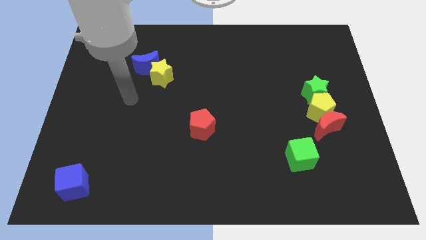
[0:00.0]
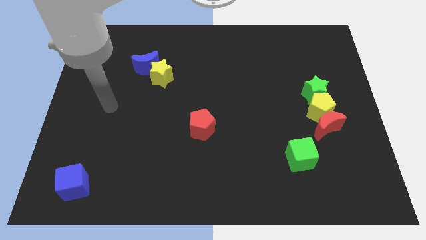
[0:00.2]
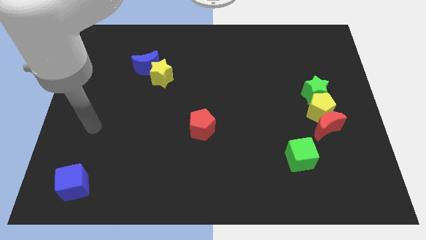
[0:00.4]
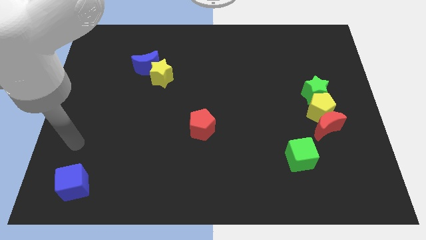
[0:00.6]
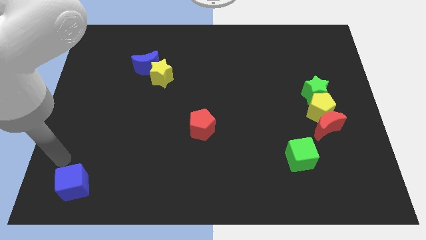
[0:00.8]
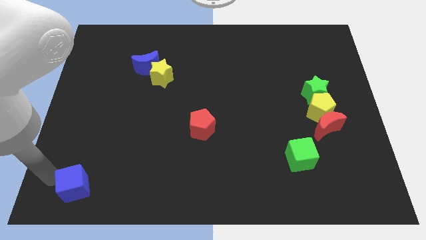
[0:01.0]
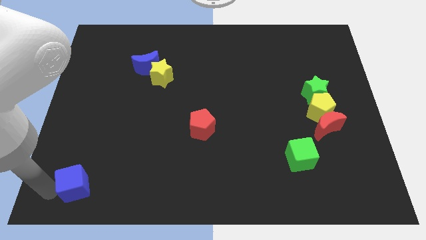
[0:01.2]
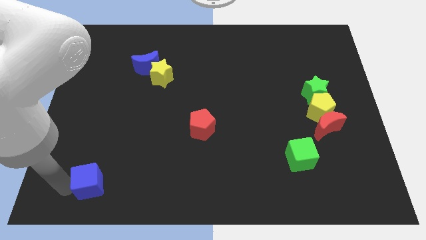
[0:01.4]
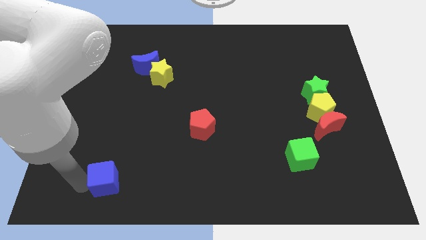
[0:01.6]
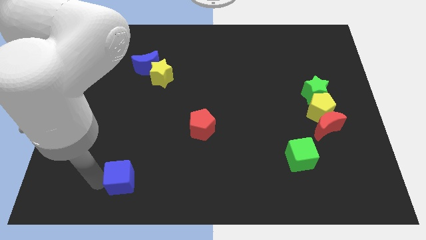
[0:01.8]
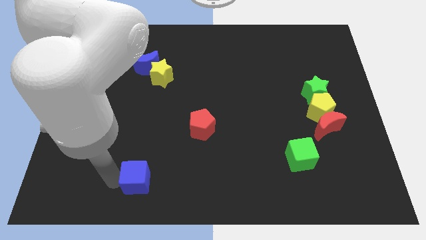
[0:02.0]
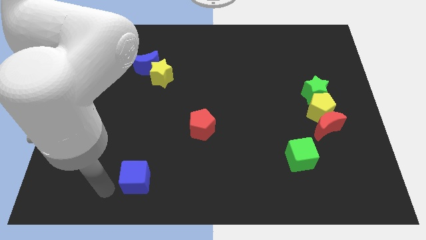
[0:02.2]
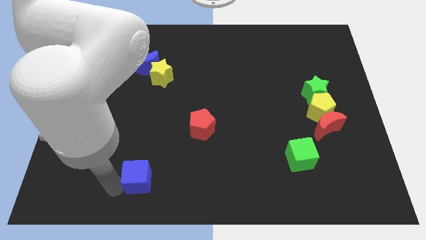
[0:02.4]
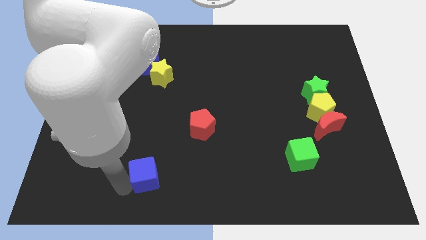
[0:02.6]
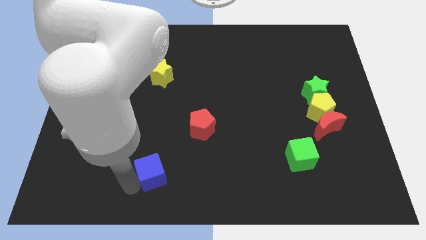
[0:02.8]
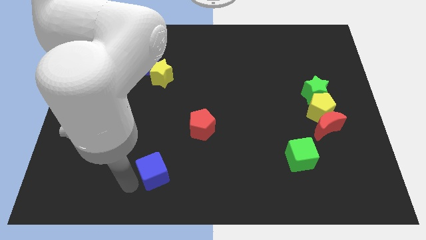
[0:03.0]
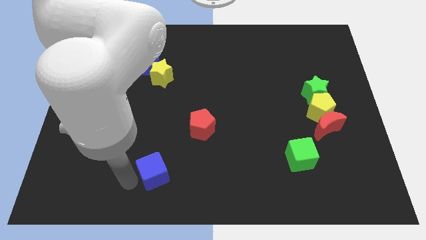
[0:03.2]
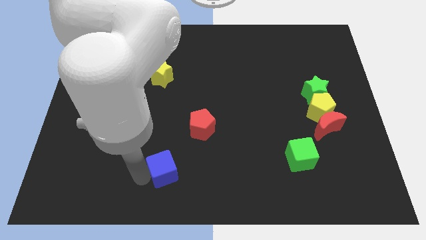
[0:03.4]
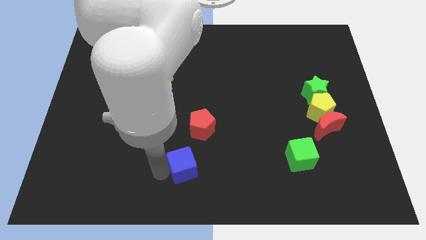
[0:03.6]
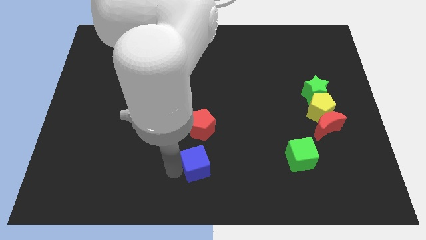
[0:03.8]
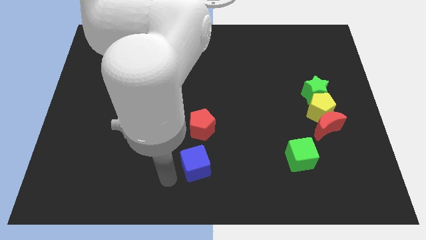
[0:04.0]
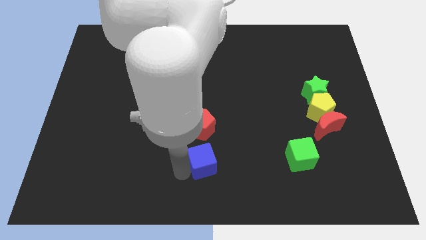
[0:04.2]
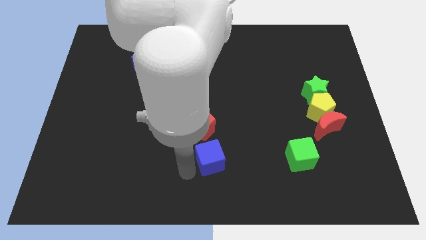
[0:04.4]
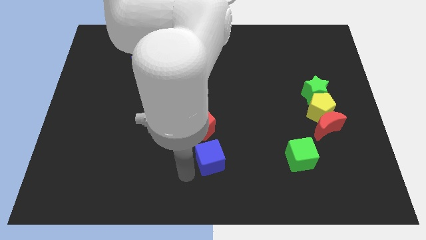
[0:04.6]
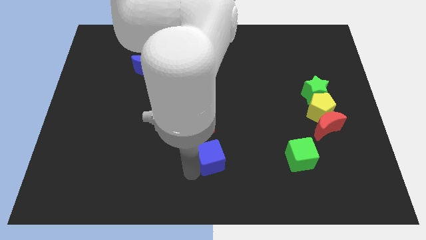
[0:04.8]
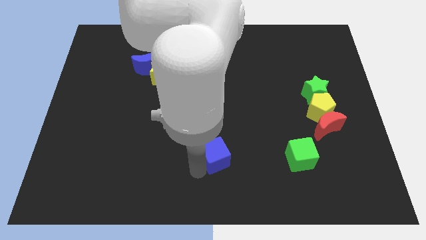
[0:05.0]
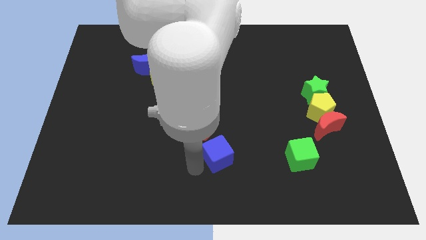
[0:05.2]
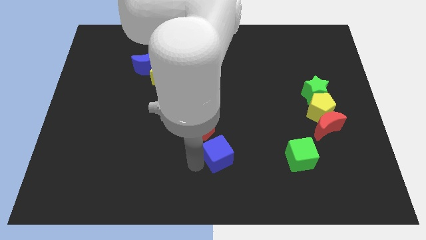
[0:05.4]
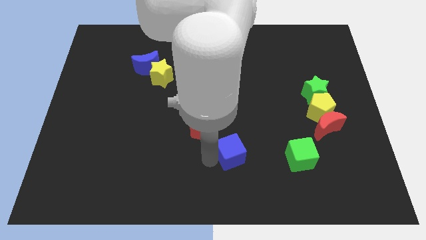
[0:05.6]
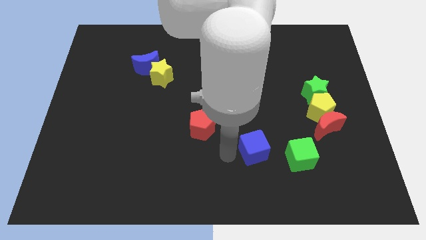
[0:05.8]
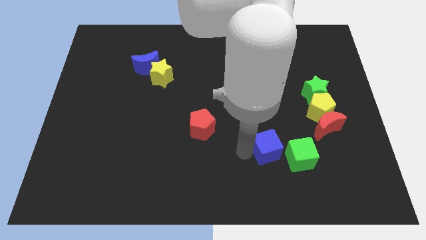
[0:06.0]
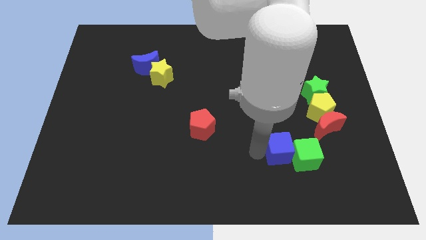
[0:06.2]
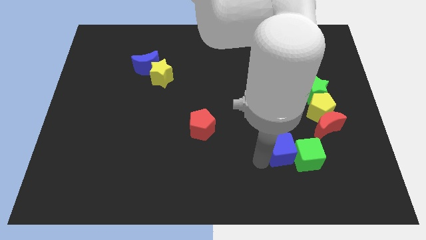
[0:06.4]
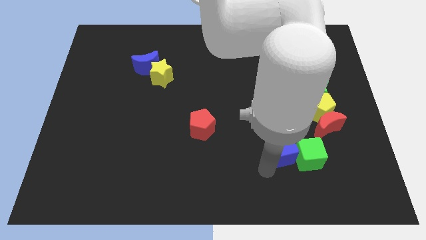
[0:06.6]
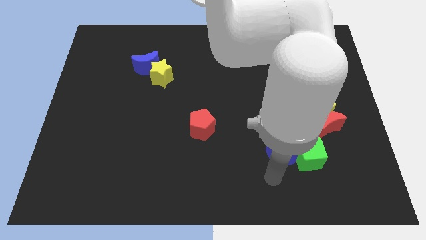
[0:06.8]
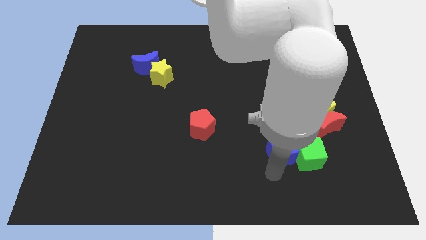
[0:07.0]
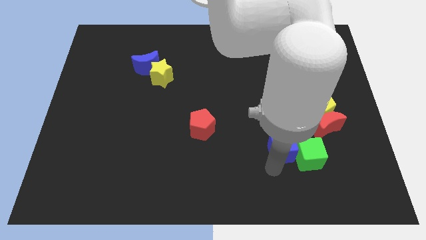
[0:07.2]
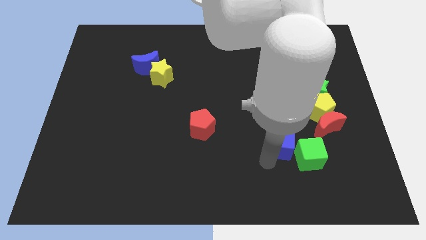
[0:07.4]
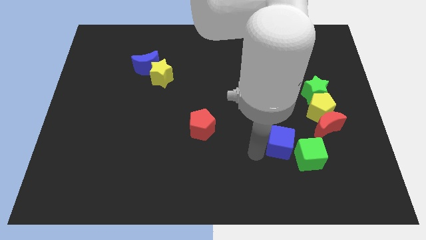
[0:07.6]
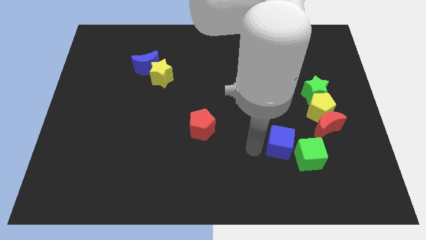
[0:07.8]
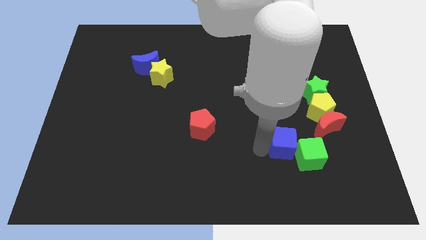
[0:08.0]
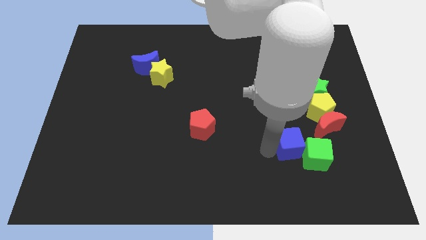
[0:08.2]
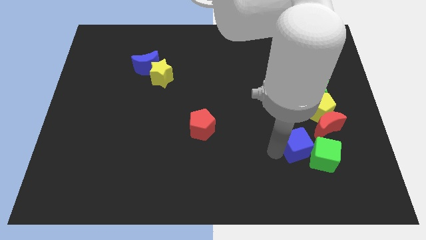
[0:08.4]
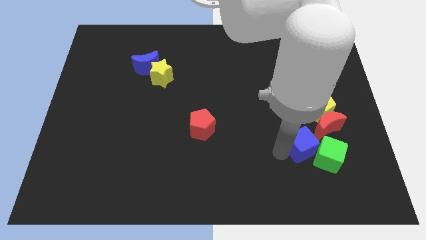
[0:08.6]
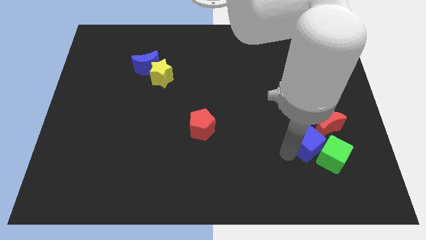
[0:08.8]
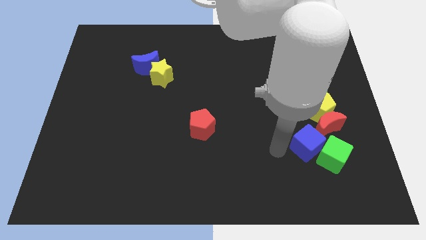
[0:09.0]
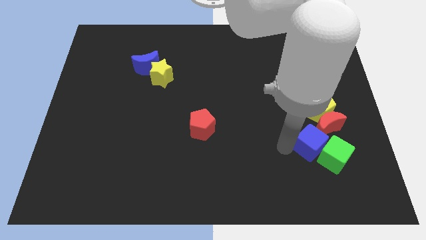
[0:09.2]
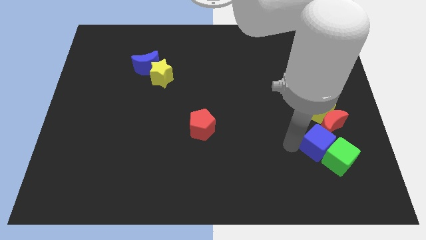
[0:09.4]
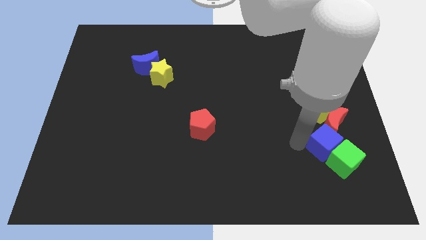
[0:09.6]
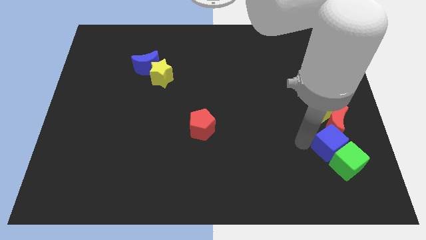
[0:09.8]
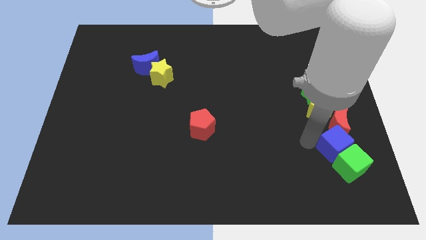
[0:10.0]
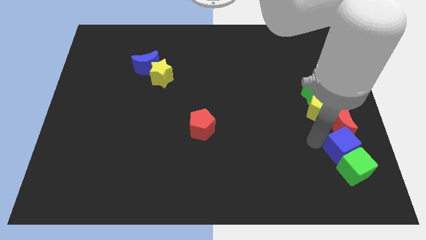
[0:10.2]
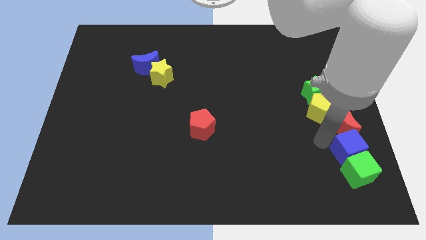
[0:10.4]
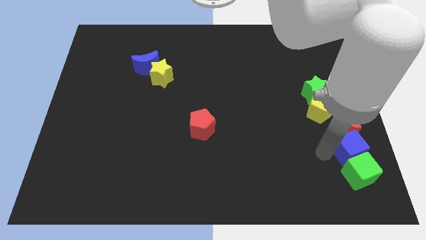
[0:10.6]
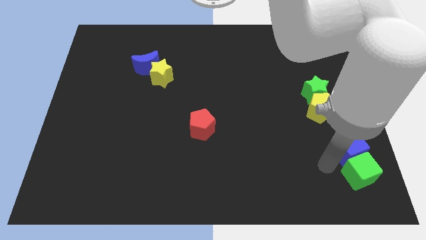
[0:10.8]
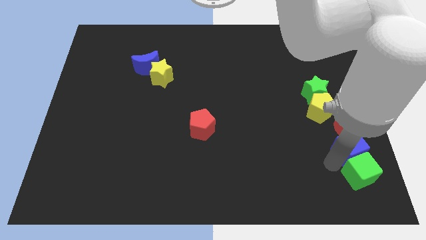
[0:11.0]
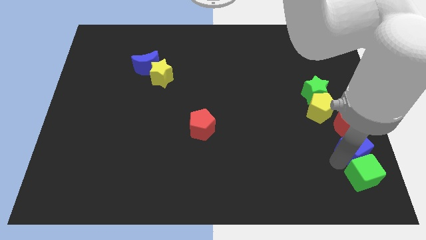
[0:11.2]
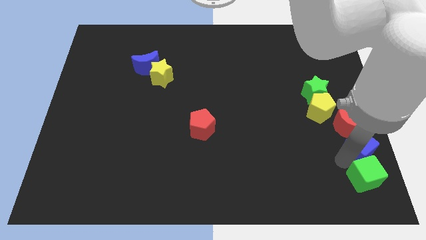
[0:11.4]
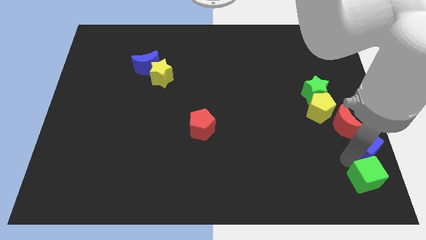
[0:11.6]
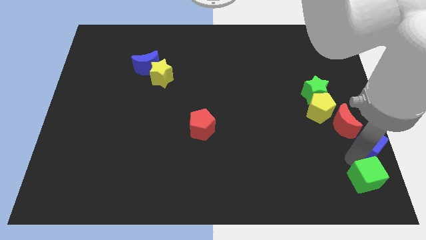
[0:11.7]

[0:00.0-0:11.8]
slide the blue cube to the right side of the board

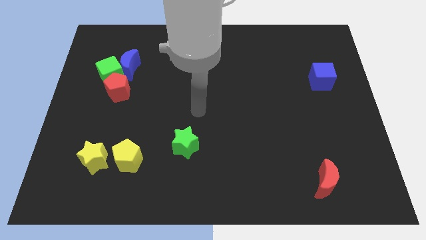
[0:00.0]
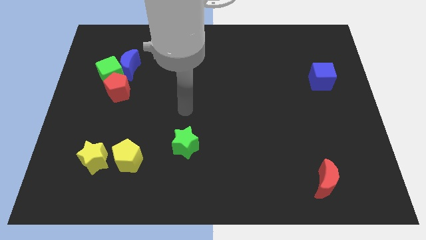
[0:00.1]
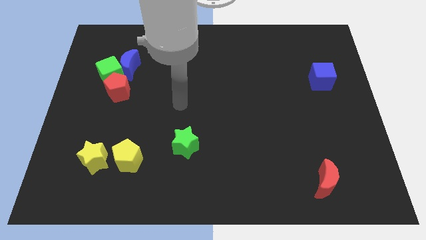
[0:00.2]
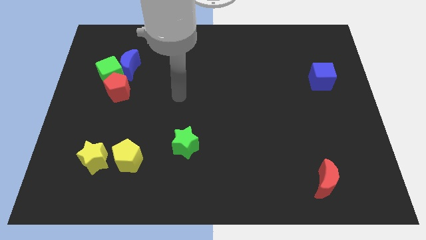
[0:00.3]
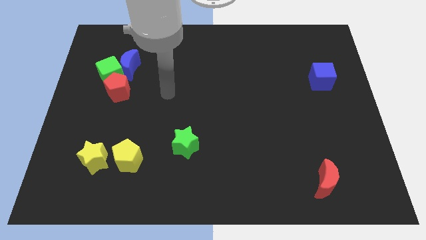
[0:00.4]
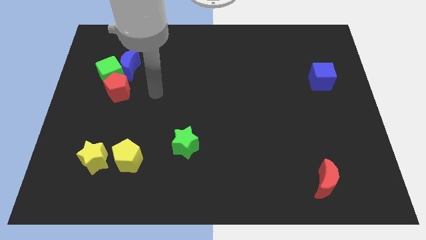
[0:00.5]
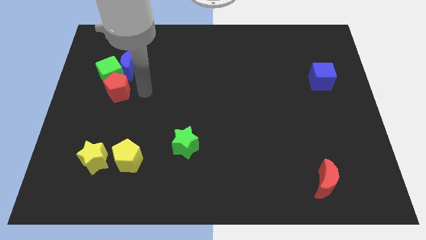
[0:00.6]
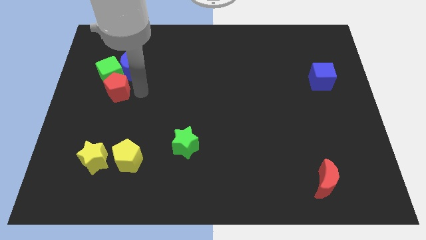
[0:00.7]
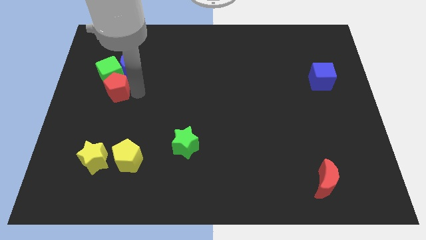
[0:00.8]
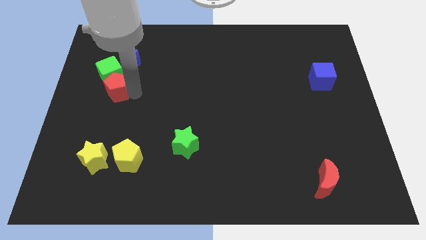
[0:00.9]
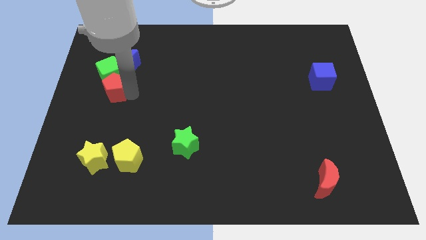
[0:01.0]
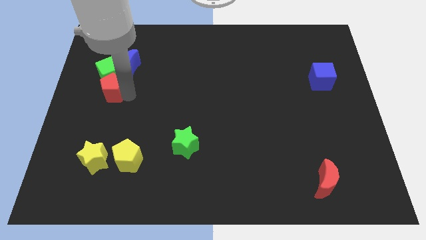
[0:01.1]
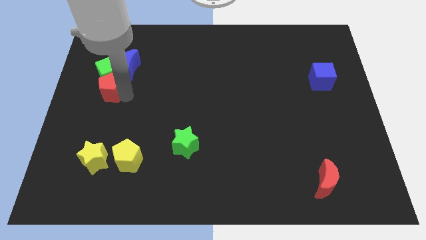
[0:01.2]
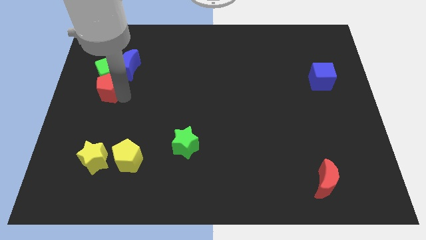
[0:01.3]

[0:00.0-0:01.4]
push the red pentagon to the left side
